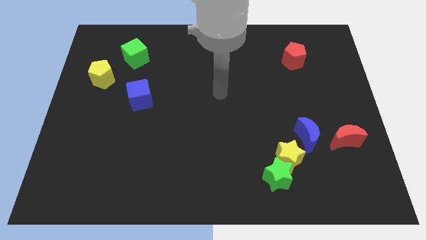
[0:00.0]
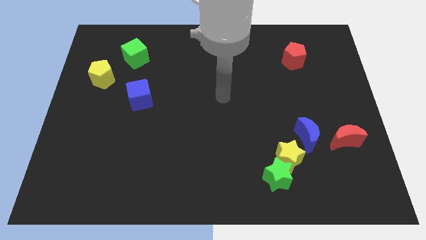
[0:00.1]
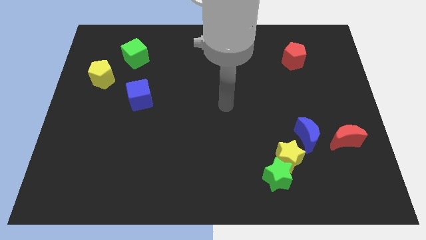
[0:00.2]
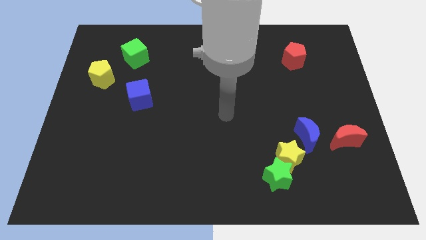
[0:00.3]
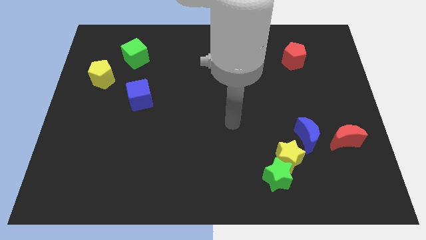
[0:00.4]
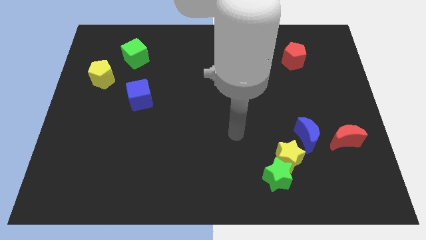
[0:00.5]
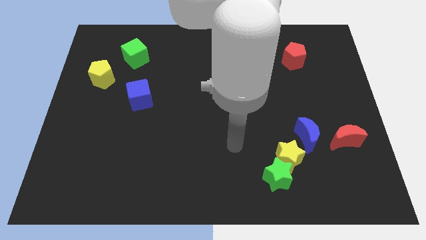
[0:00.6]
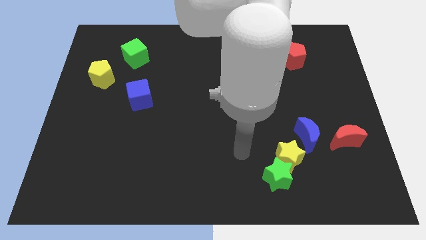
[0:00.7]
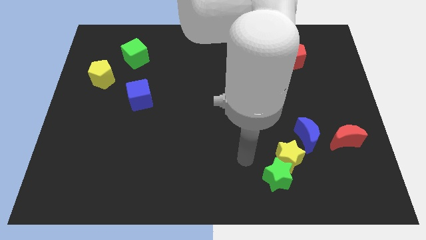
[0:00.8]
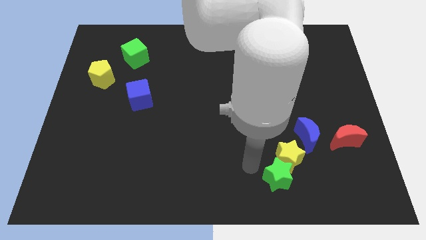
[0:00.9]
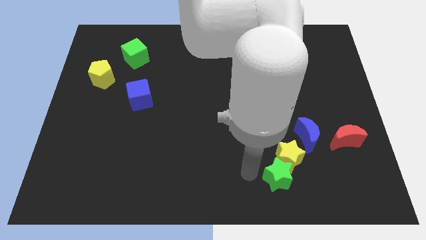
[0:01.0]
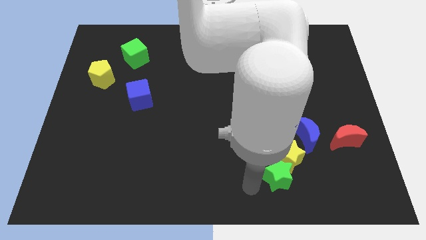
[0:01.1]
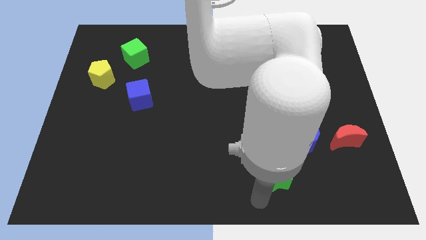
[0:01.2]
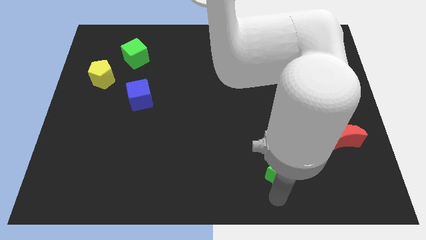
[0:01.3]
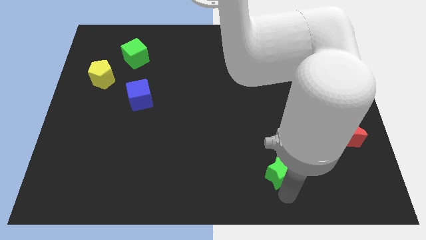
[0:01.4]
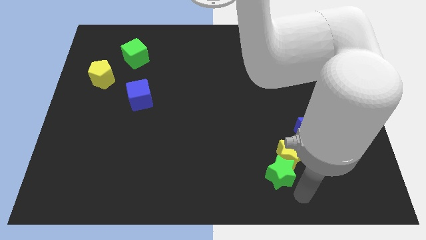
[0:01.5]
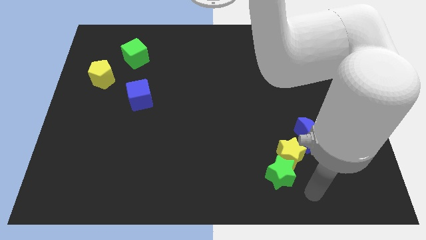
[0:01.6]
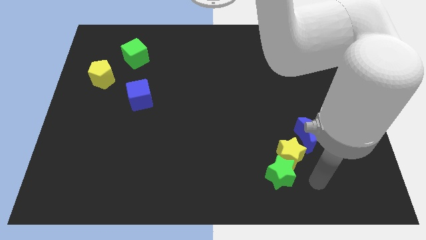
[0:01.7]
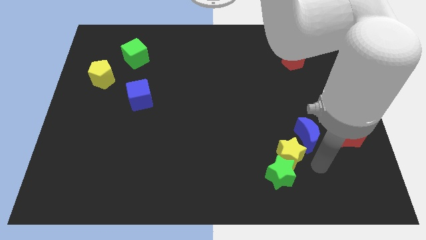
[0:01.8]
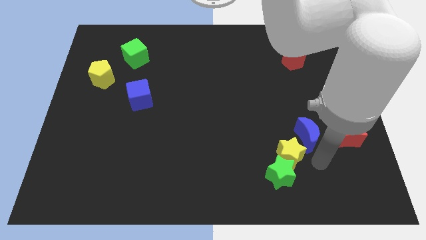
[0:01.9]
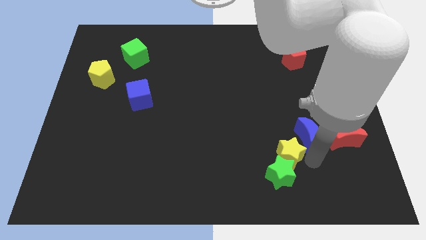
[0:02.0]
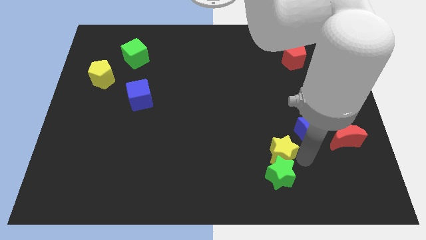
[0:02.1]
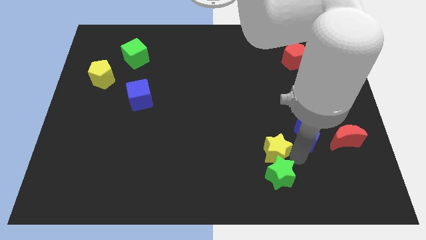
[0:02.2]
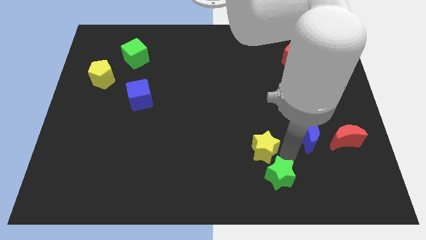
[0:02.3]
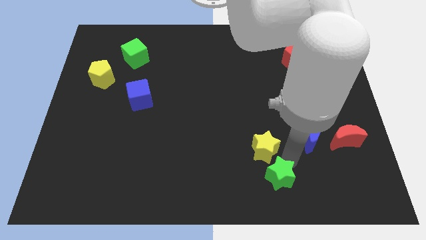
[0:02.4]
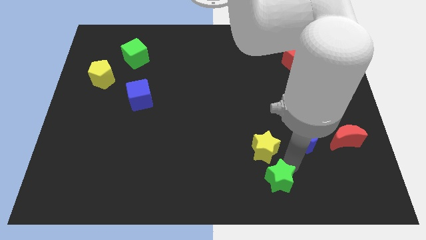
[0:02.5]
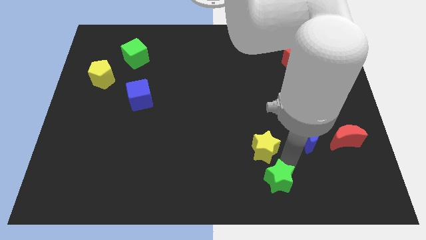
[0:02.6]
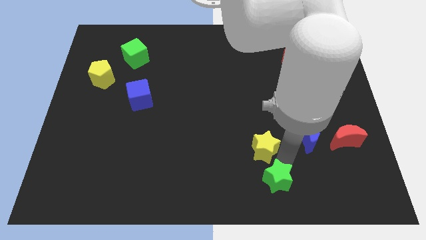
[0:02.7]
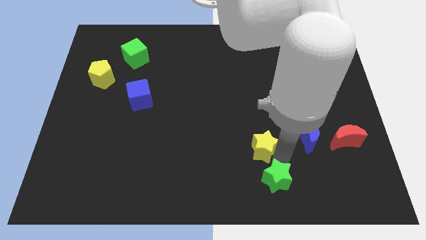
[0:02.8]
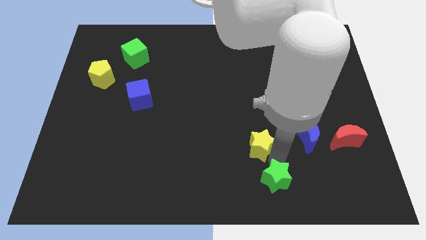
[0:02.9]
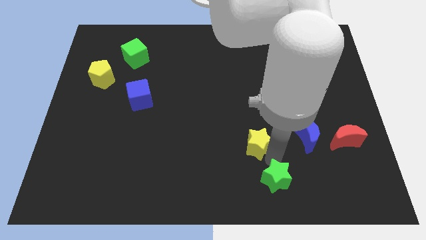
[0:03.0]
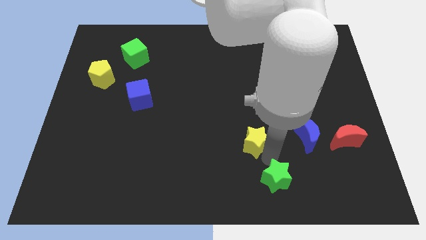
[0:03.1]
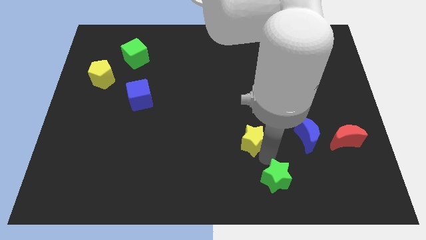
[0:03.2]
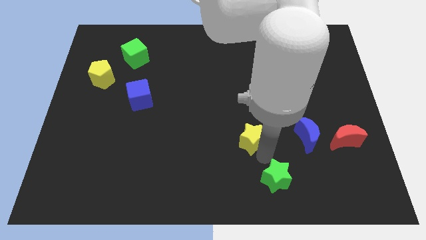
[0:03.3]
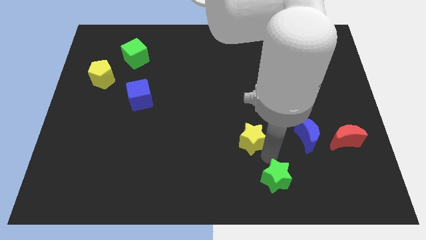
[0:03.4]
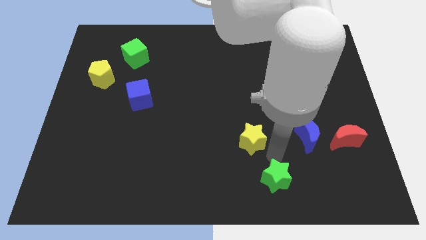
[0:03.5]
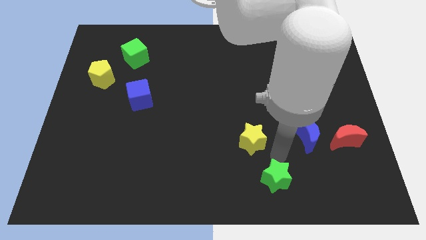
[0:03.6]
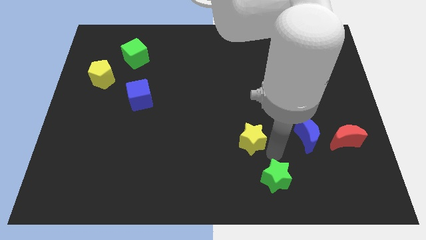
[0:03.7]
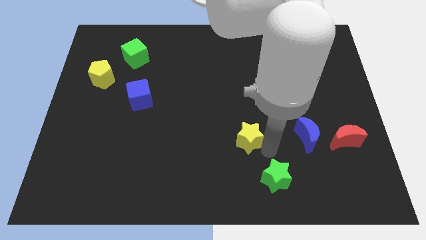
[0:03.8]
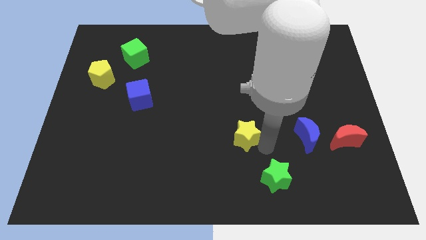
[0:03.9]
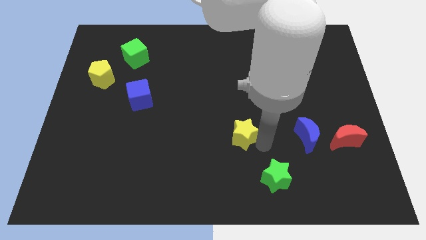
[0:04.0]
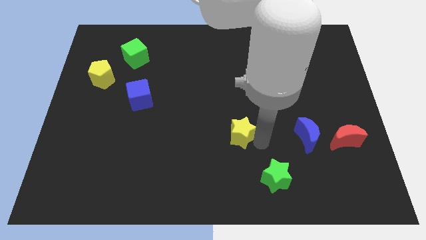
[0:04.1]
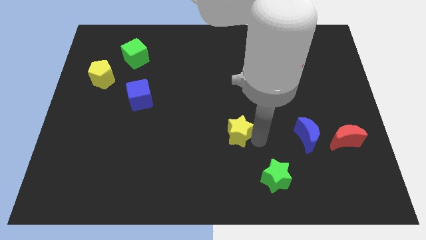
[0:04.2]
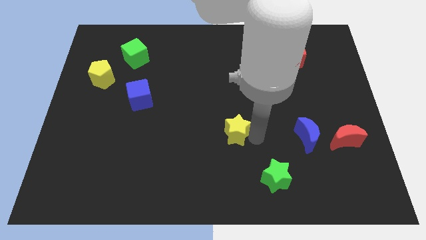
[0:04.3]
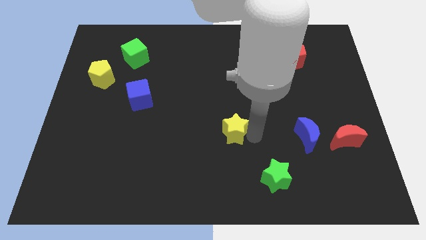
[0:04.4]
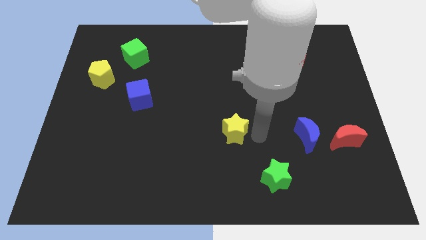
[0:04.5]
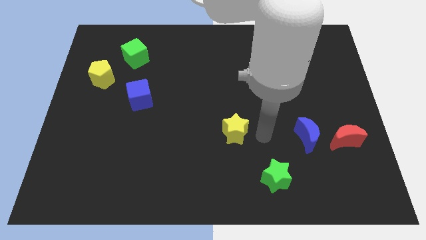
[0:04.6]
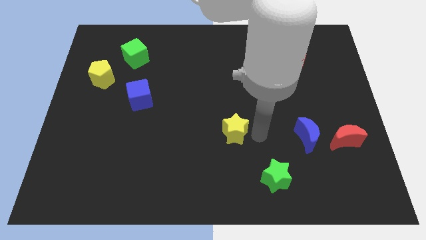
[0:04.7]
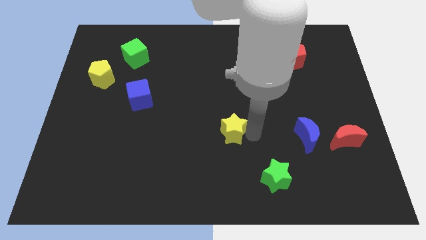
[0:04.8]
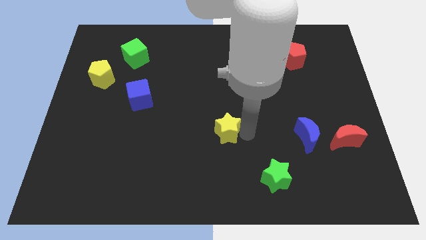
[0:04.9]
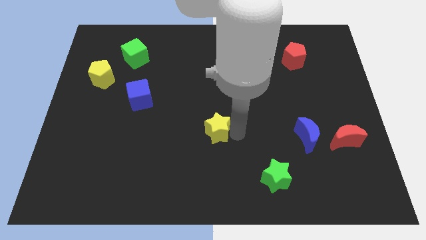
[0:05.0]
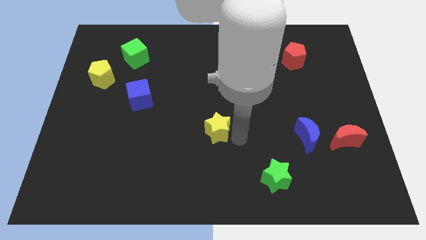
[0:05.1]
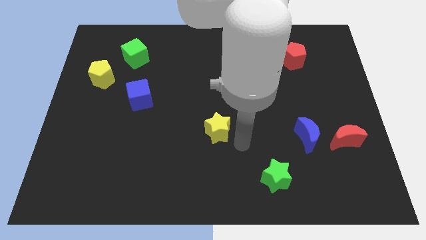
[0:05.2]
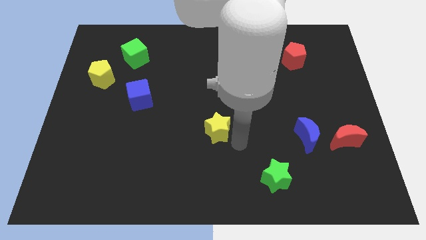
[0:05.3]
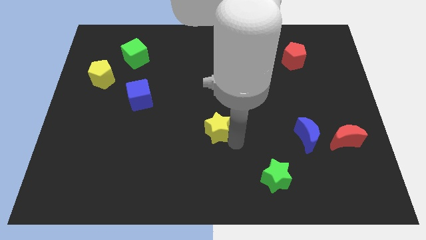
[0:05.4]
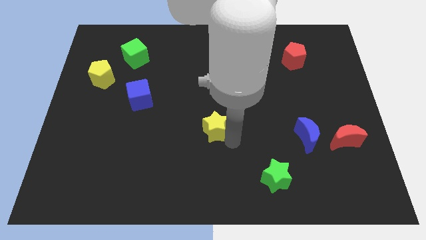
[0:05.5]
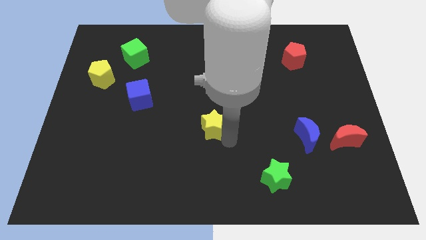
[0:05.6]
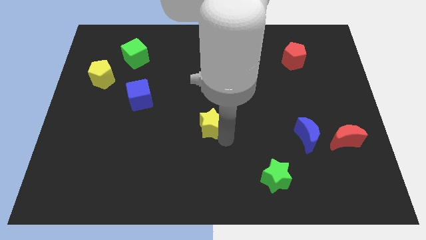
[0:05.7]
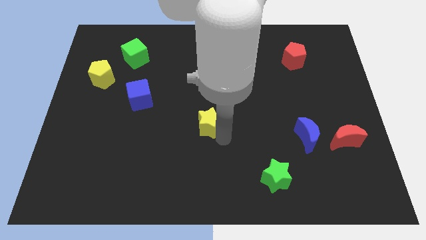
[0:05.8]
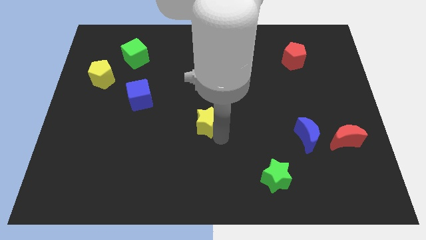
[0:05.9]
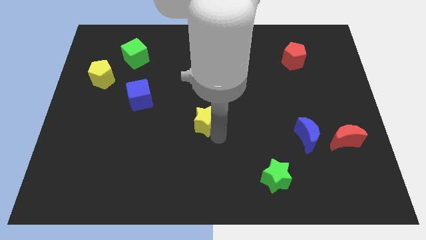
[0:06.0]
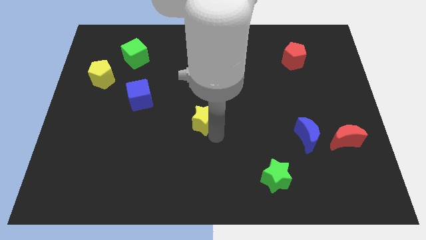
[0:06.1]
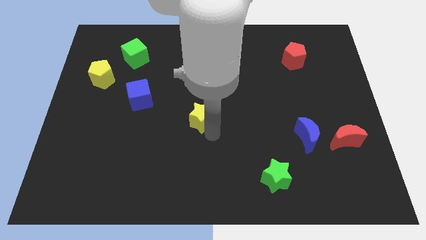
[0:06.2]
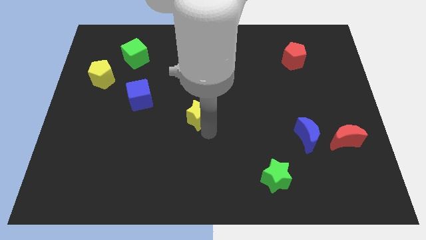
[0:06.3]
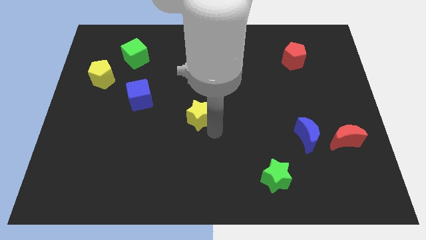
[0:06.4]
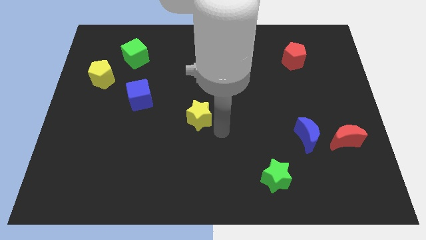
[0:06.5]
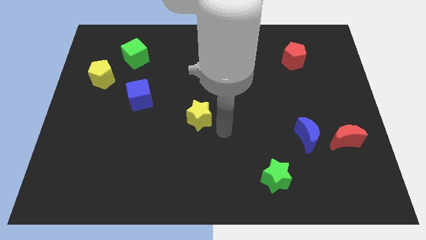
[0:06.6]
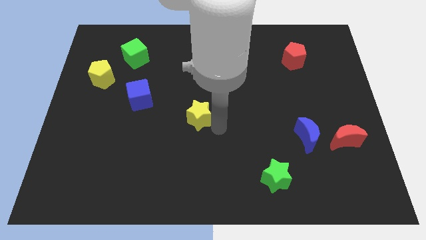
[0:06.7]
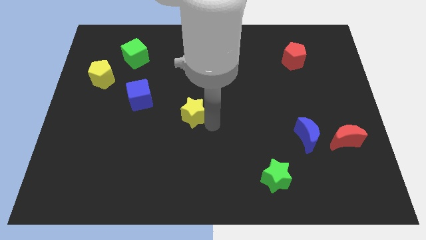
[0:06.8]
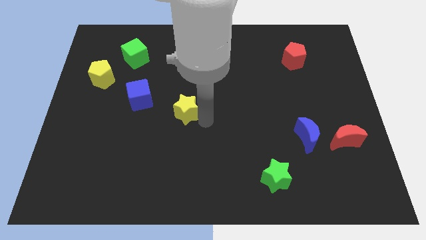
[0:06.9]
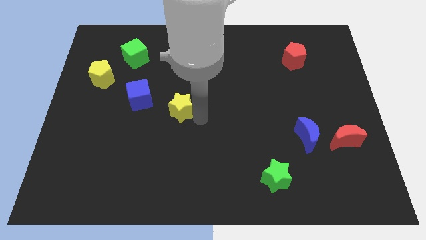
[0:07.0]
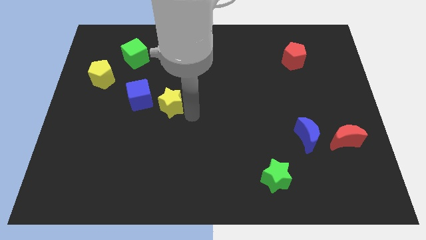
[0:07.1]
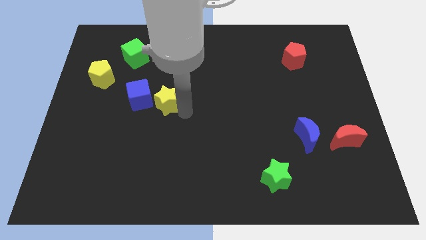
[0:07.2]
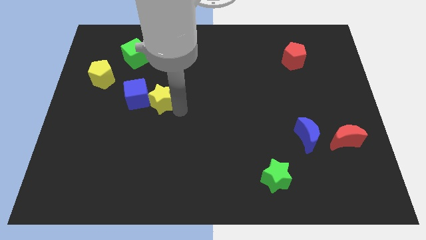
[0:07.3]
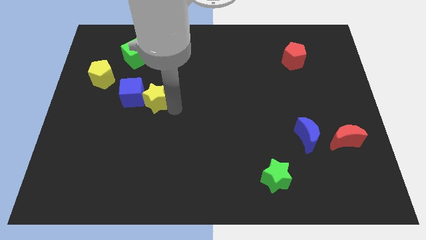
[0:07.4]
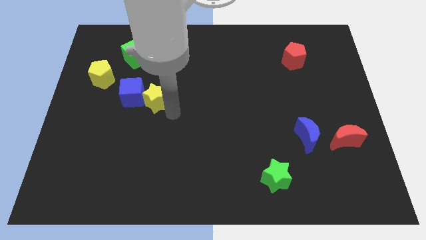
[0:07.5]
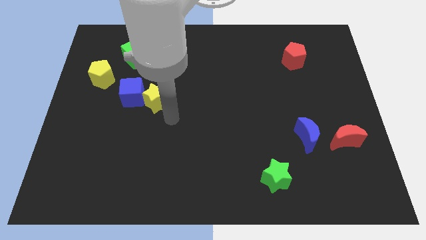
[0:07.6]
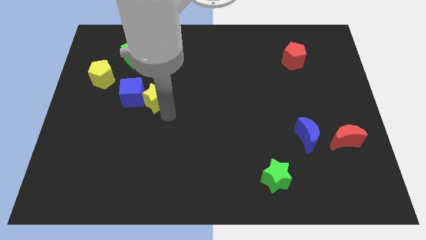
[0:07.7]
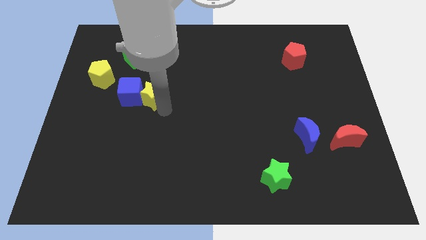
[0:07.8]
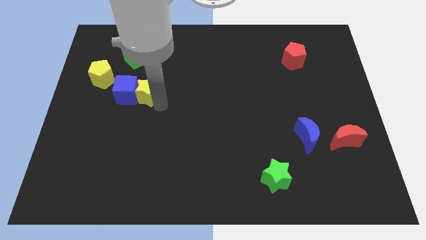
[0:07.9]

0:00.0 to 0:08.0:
slide the yellow star to the bottom of the green cube
